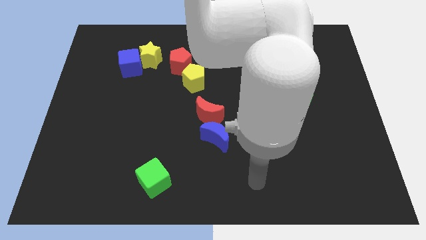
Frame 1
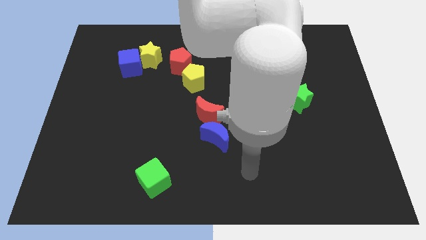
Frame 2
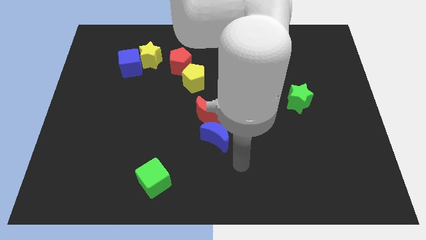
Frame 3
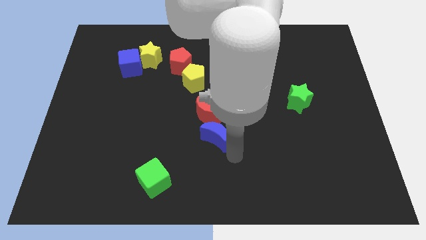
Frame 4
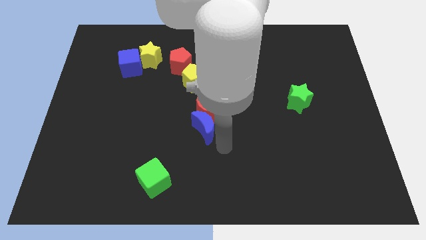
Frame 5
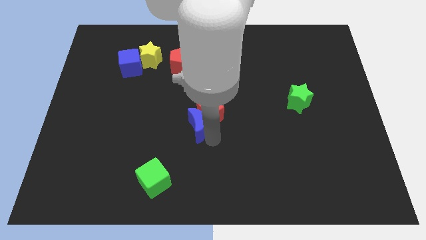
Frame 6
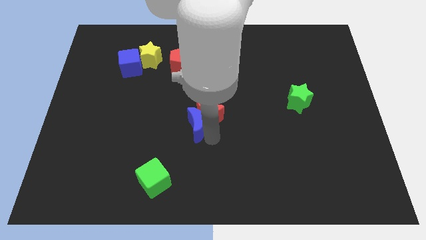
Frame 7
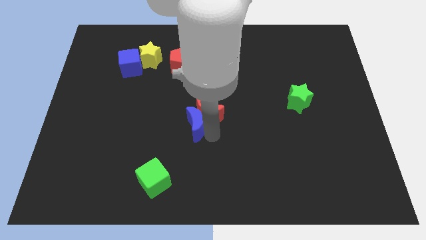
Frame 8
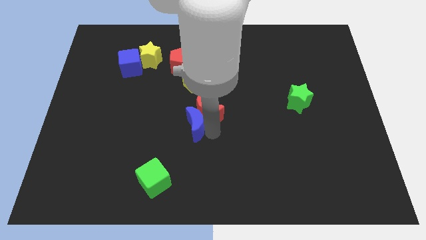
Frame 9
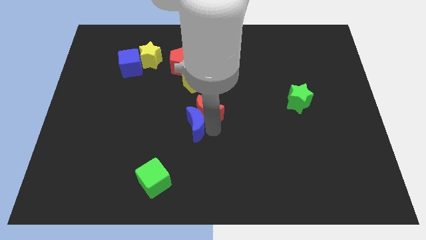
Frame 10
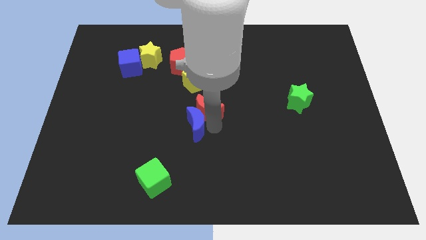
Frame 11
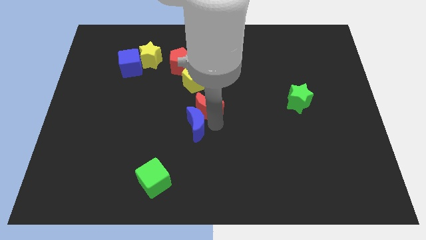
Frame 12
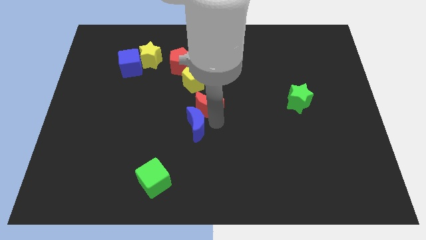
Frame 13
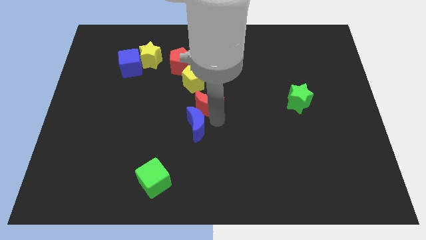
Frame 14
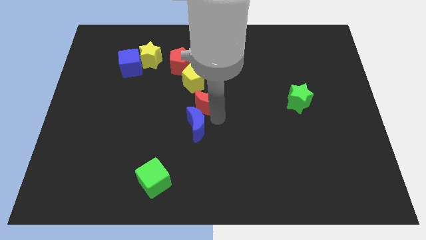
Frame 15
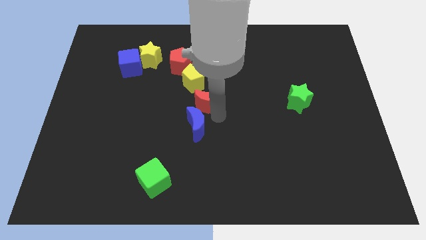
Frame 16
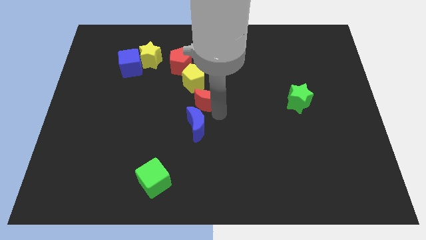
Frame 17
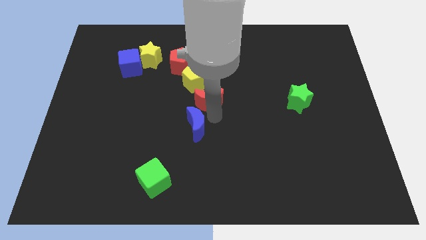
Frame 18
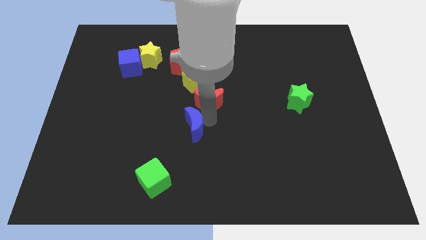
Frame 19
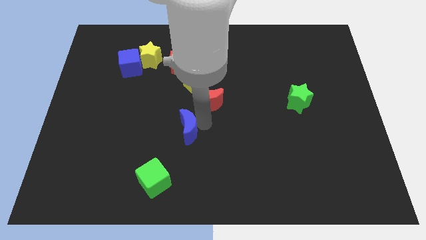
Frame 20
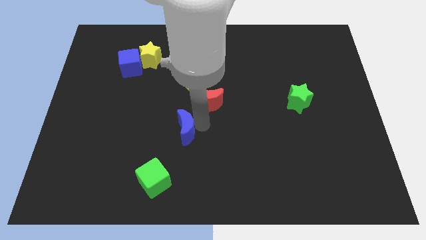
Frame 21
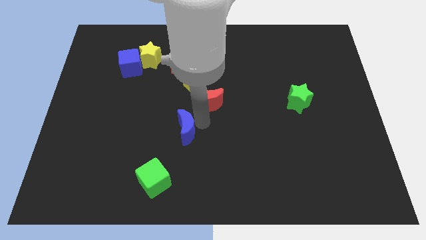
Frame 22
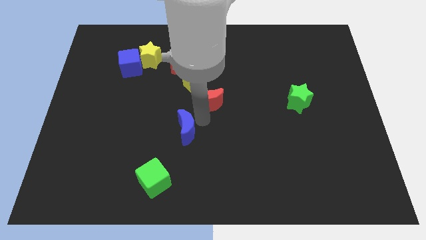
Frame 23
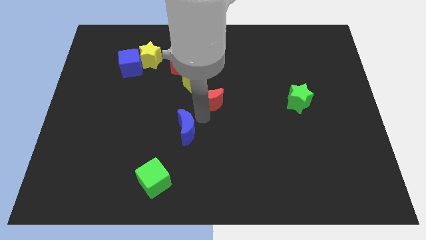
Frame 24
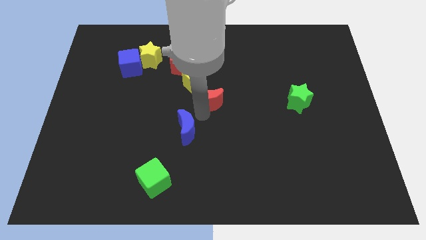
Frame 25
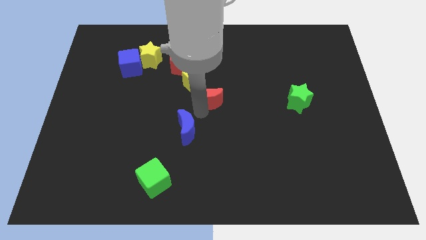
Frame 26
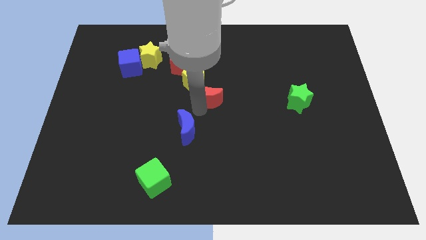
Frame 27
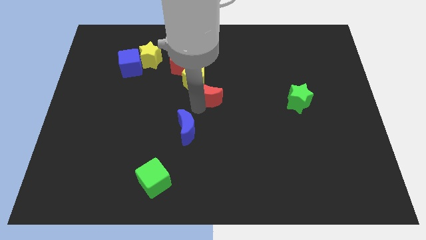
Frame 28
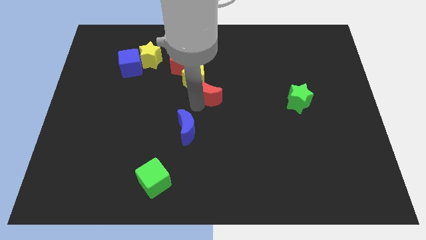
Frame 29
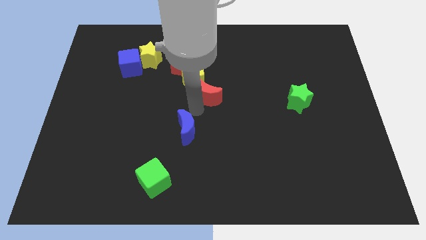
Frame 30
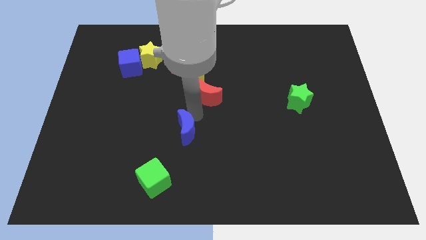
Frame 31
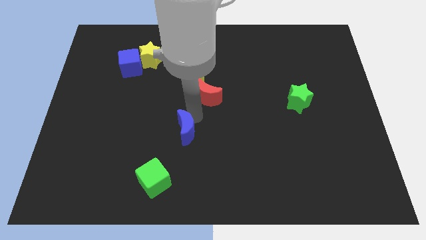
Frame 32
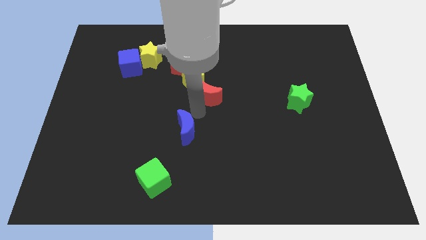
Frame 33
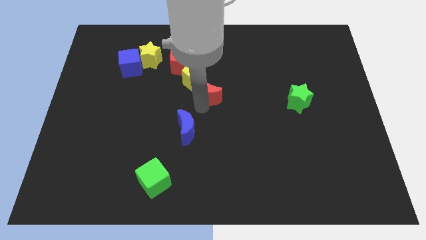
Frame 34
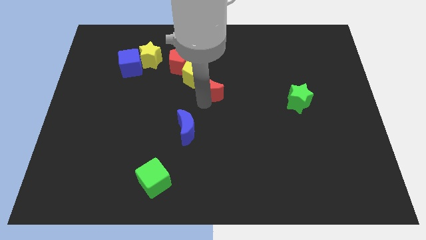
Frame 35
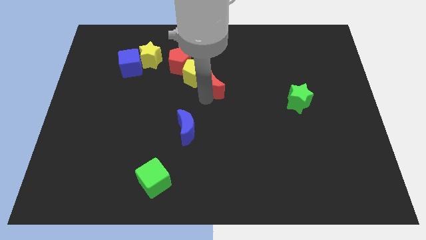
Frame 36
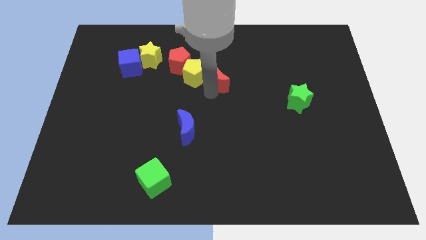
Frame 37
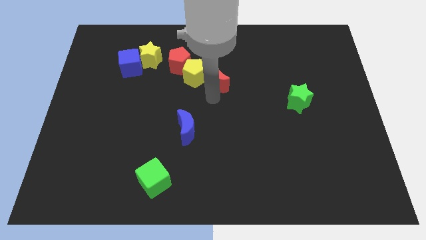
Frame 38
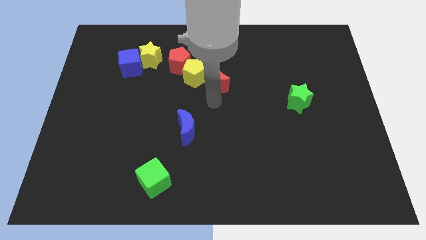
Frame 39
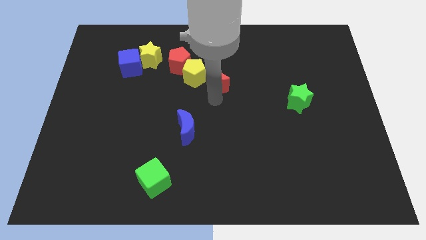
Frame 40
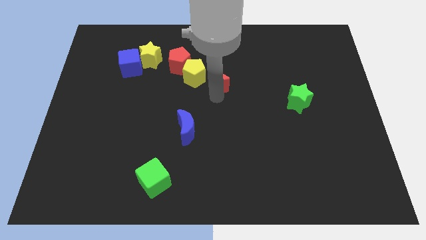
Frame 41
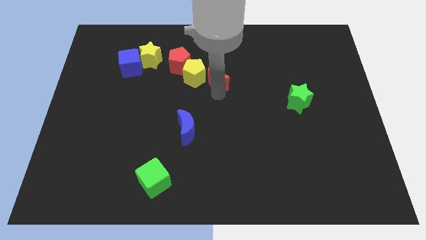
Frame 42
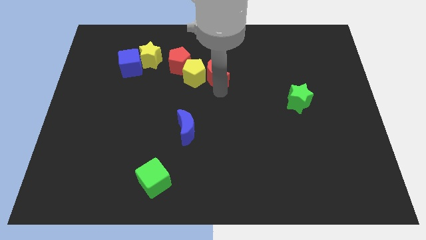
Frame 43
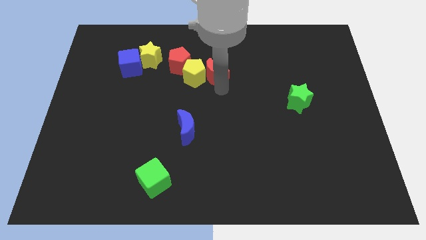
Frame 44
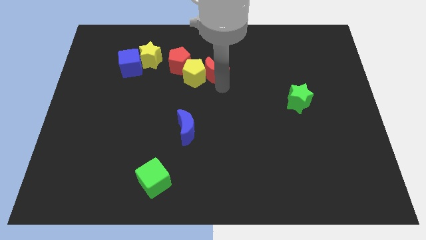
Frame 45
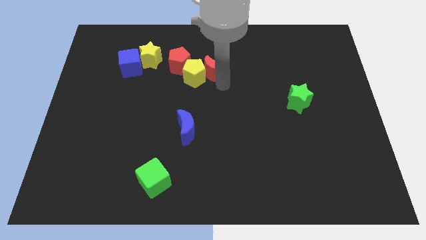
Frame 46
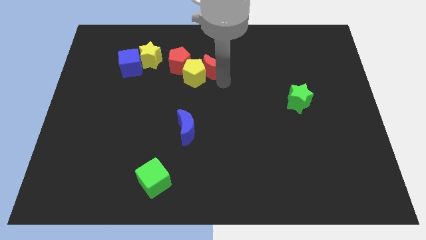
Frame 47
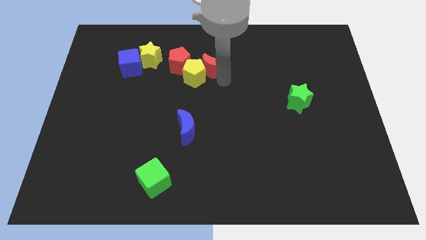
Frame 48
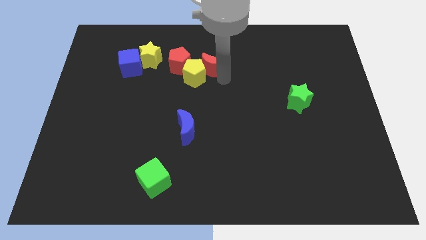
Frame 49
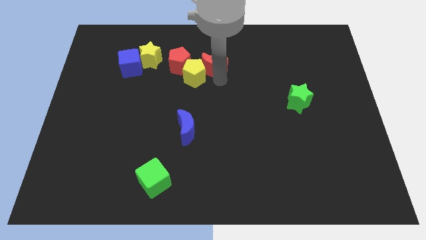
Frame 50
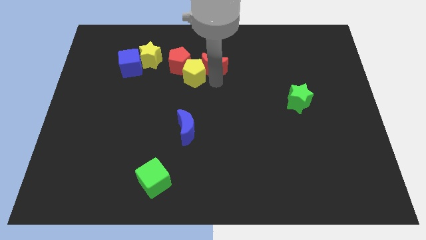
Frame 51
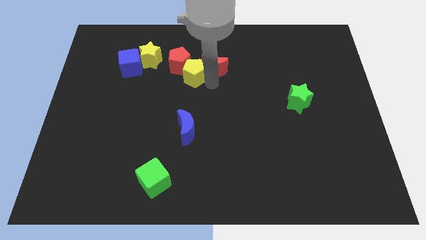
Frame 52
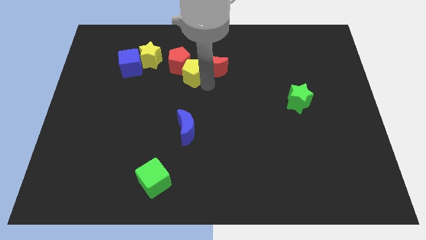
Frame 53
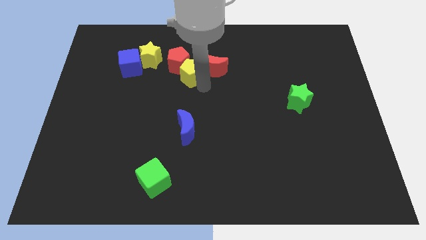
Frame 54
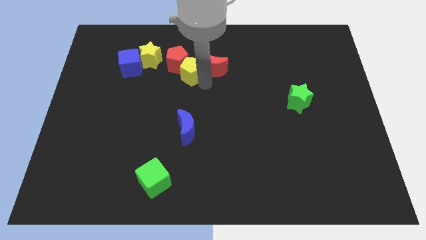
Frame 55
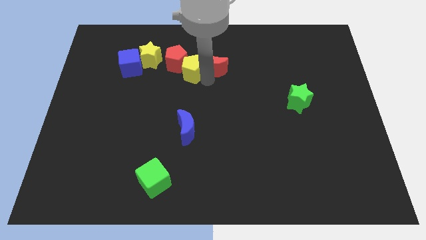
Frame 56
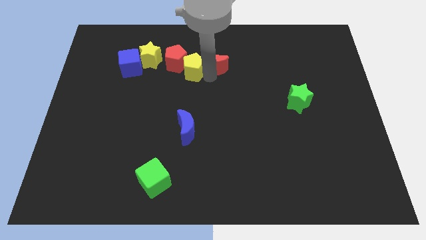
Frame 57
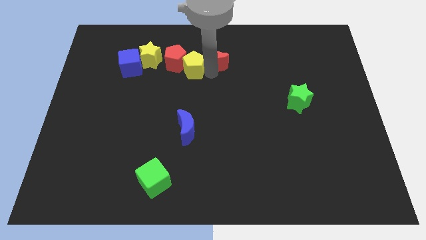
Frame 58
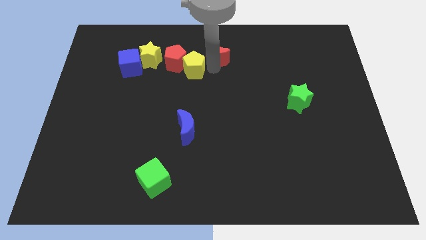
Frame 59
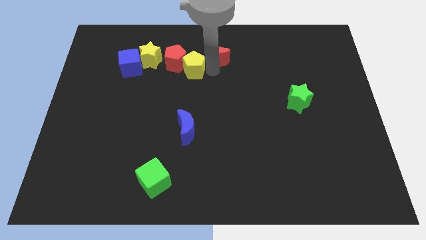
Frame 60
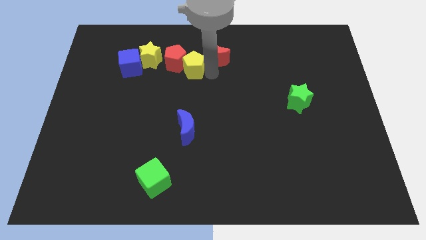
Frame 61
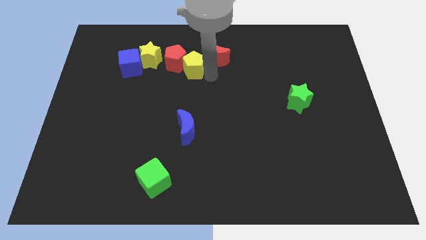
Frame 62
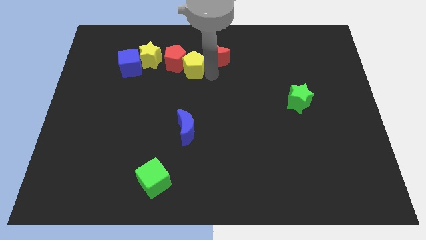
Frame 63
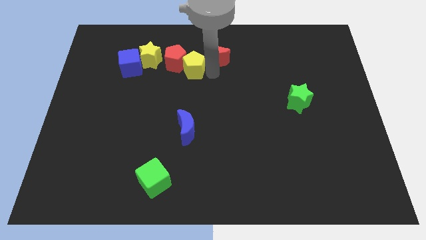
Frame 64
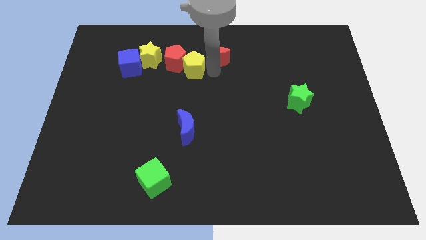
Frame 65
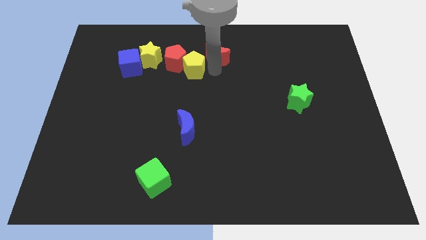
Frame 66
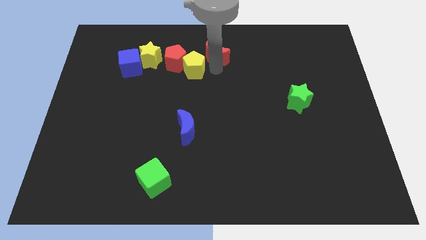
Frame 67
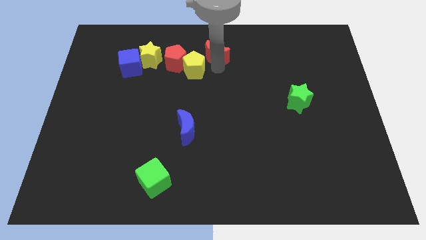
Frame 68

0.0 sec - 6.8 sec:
slide the red moon to the top side

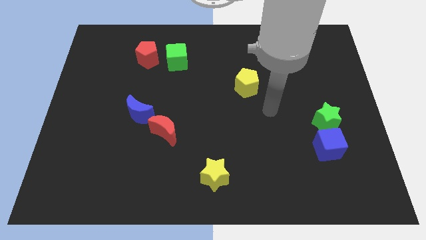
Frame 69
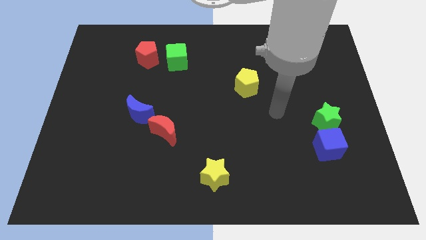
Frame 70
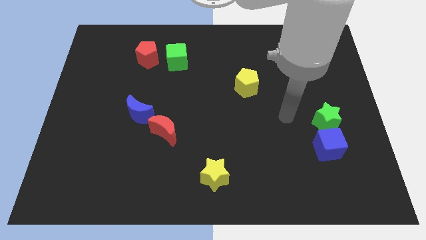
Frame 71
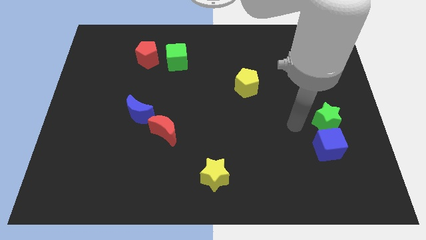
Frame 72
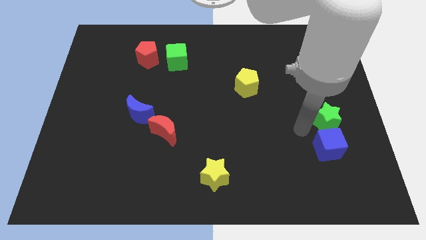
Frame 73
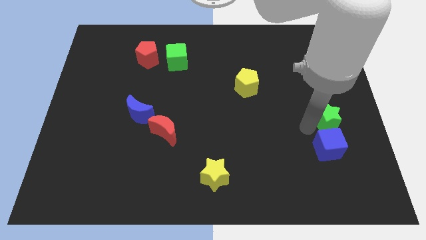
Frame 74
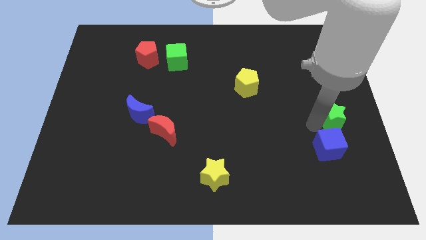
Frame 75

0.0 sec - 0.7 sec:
push the green star to the right side
